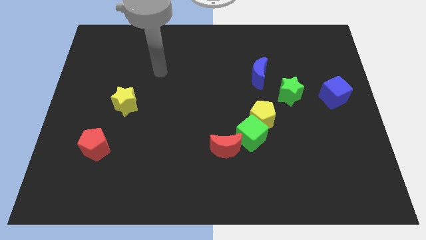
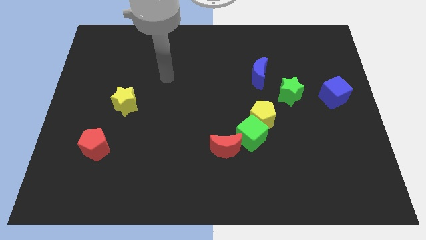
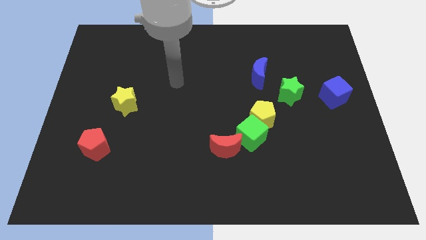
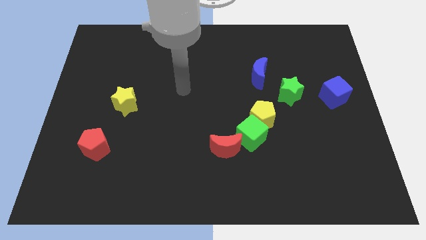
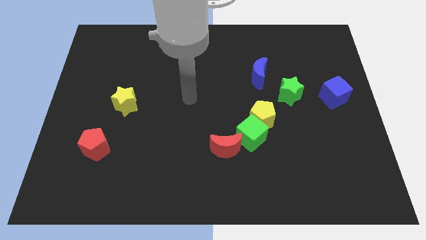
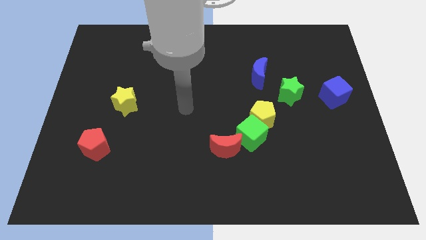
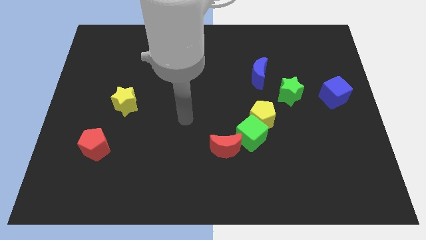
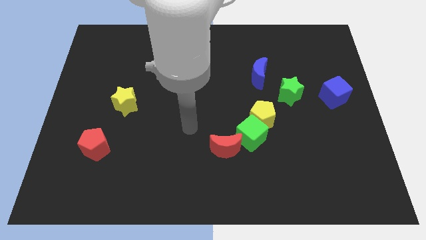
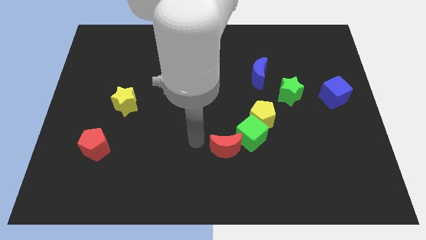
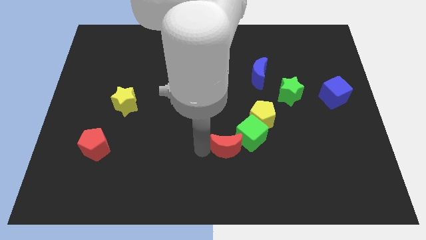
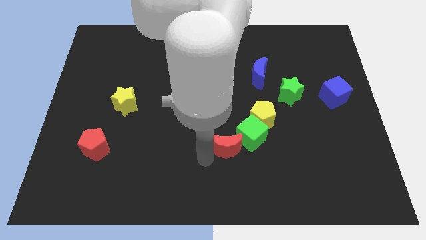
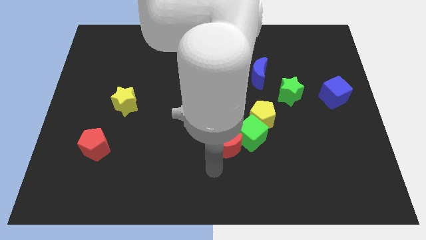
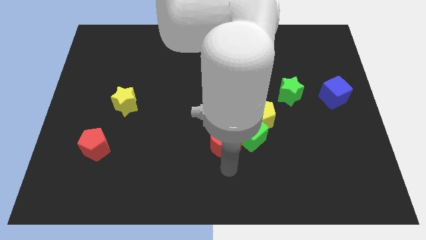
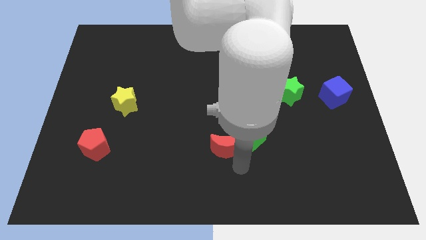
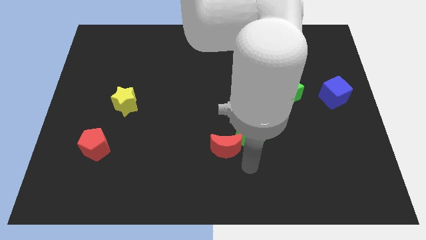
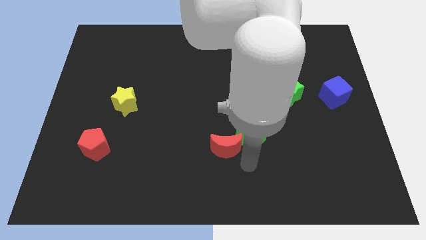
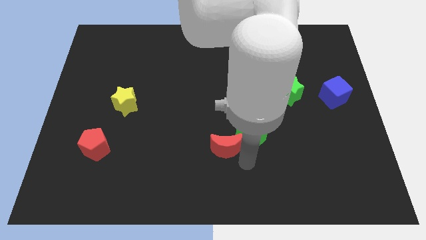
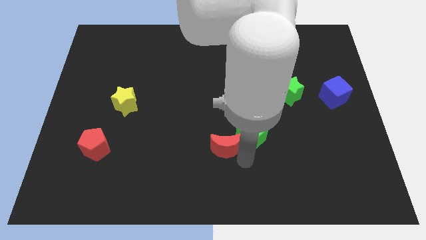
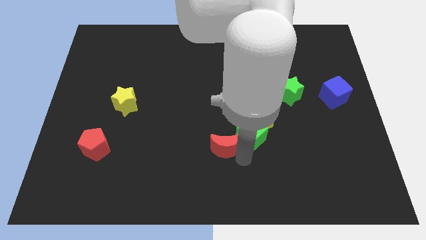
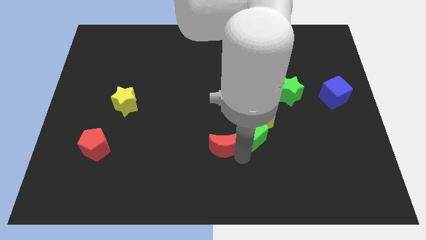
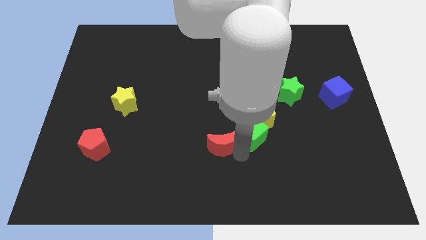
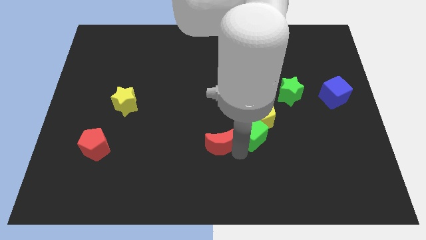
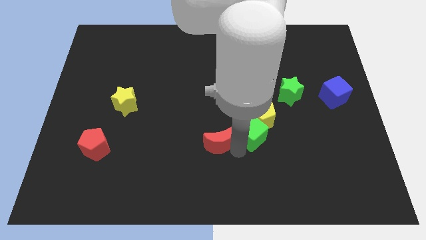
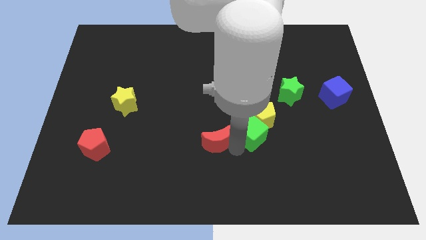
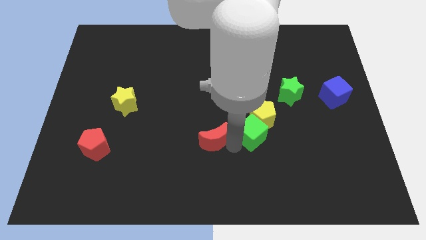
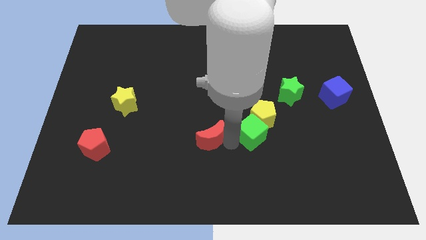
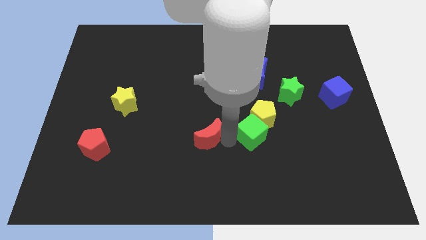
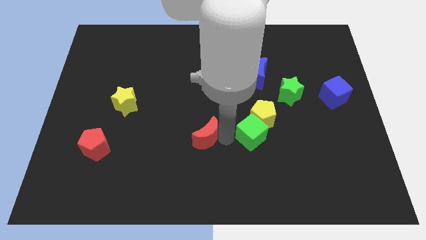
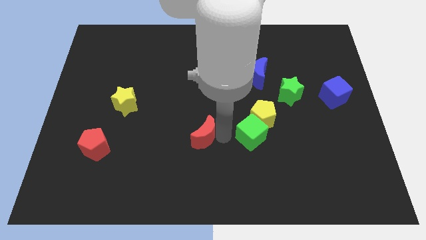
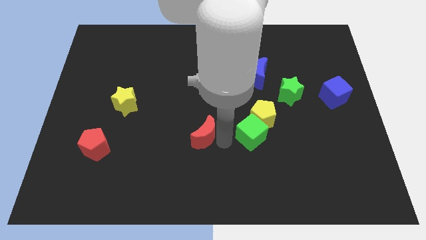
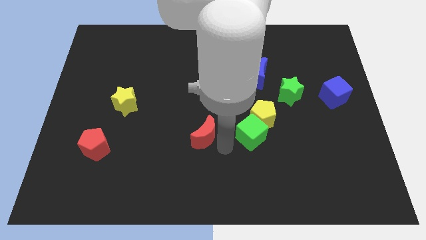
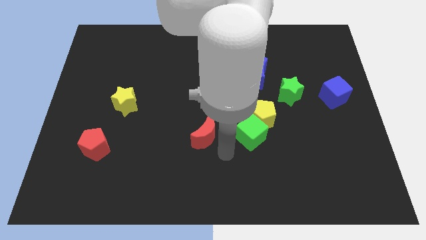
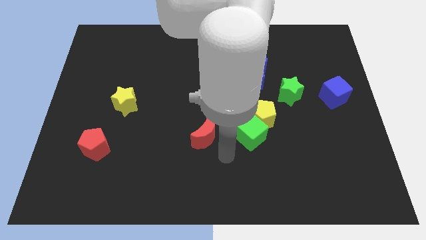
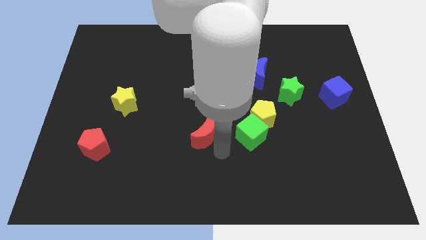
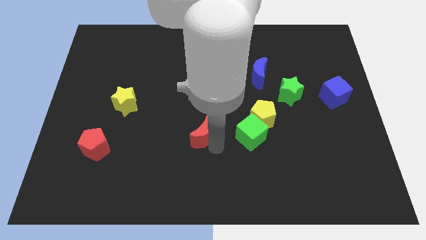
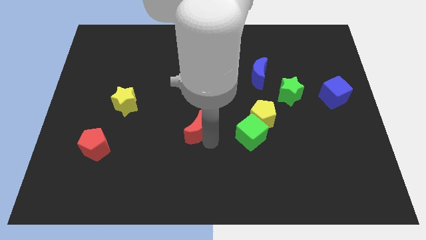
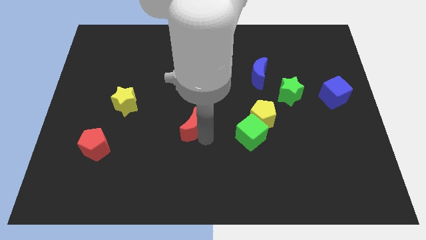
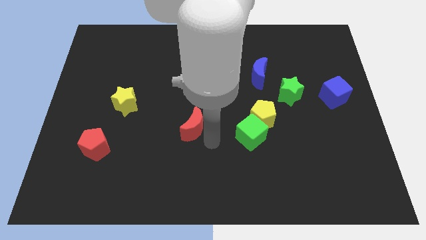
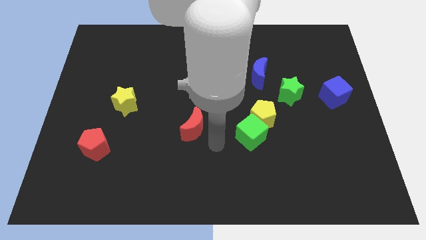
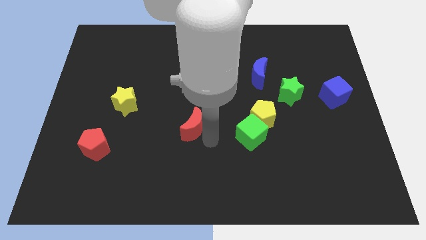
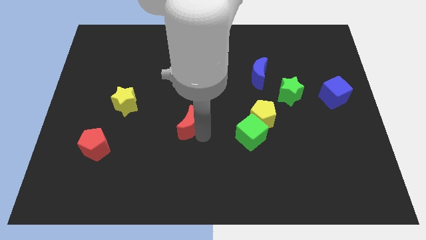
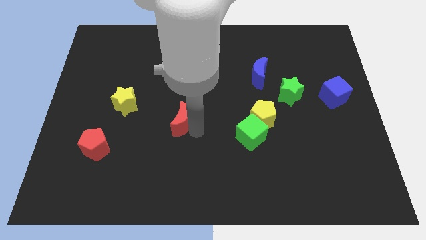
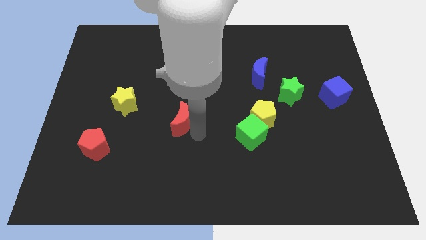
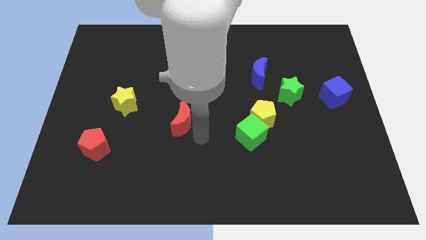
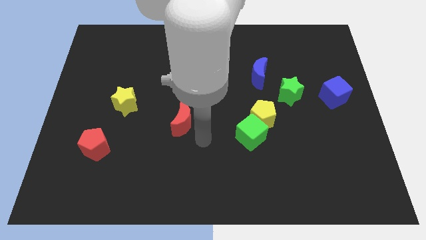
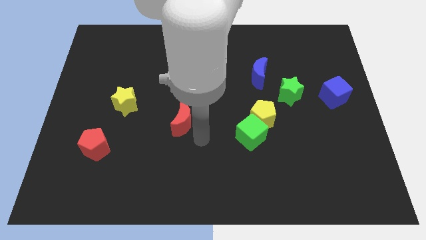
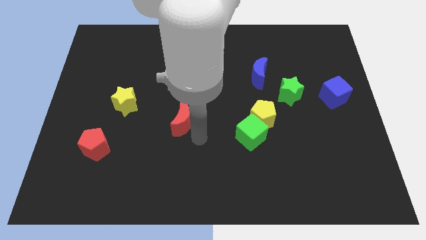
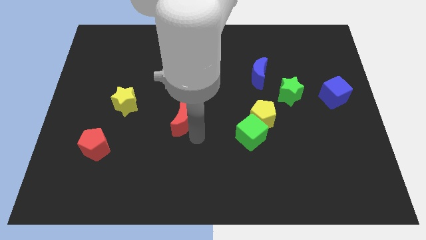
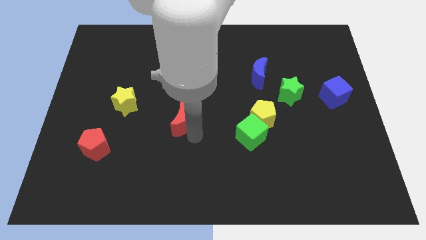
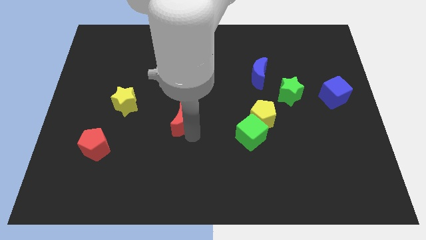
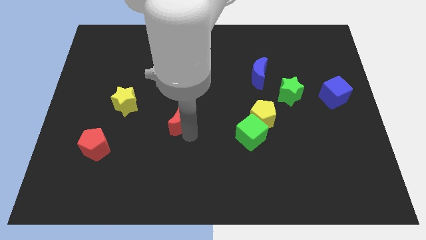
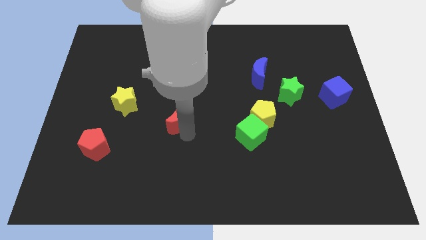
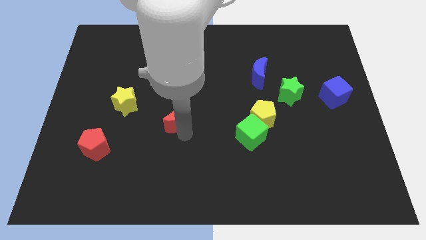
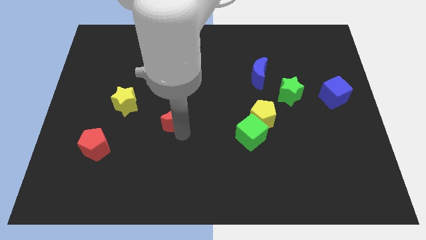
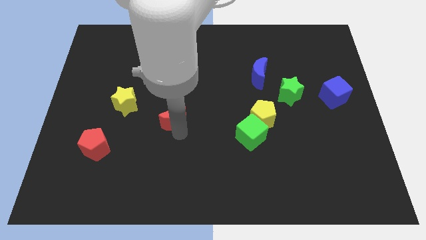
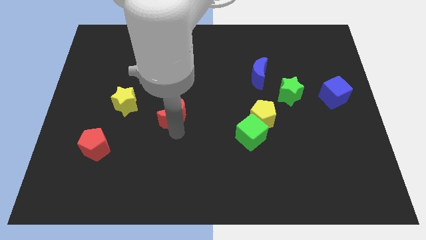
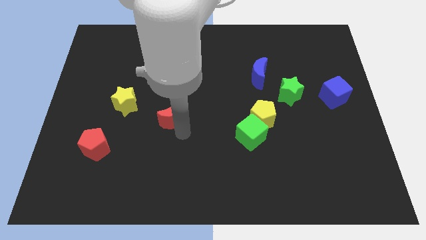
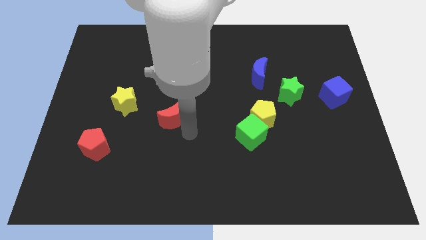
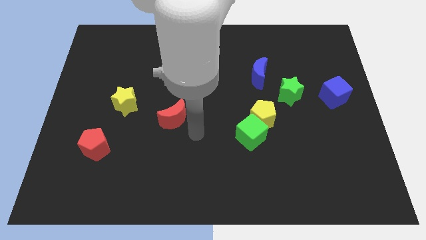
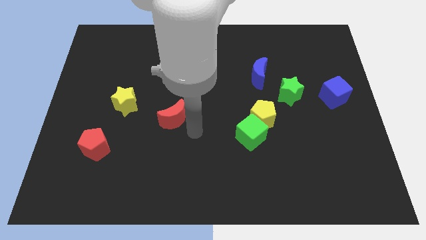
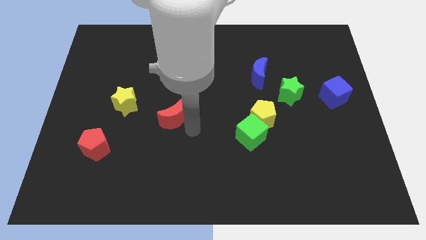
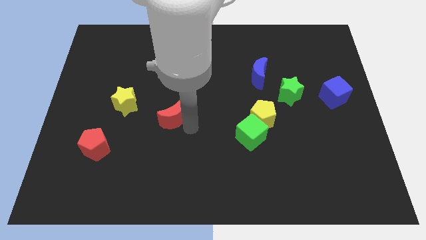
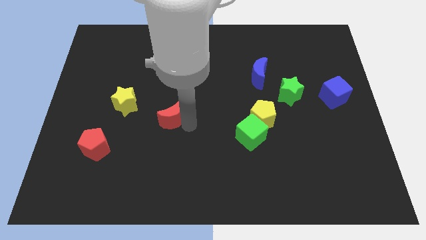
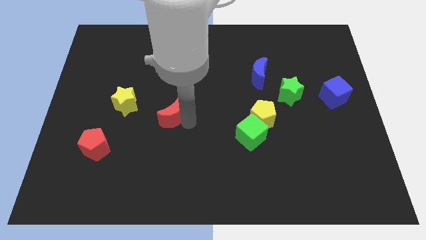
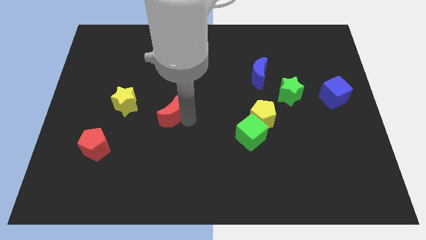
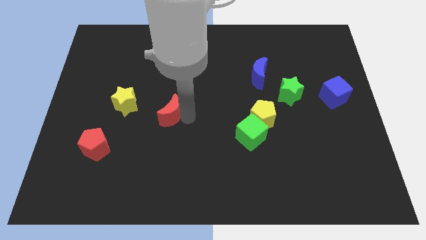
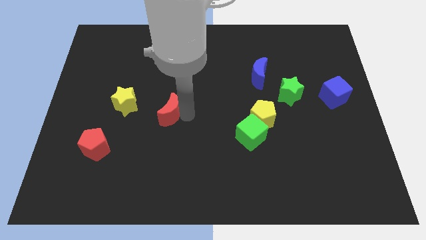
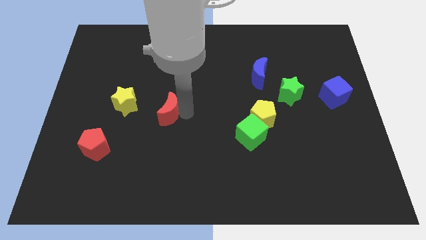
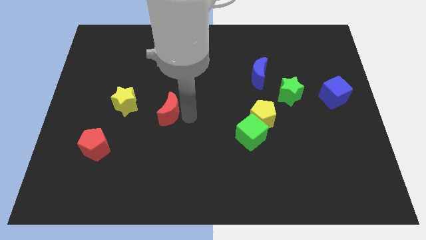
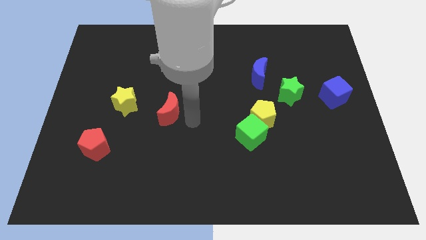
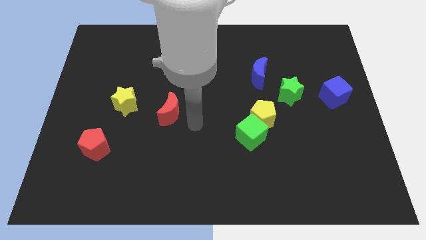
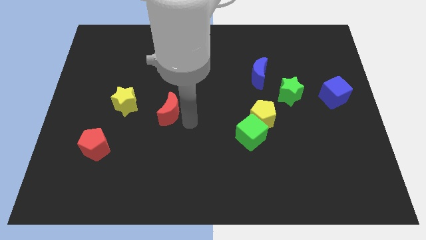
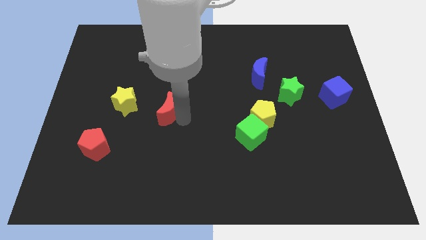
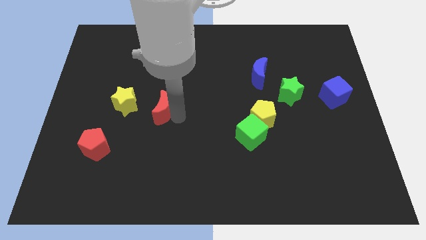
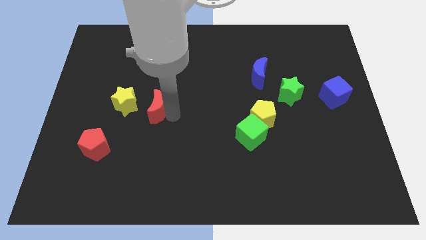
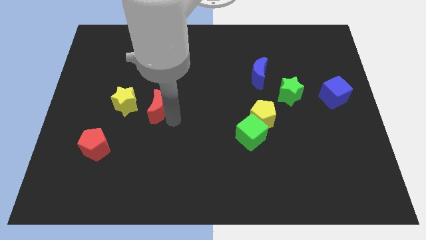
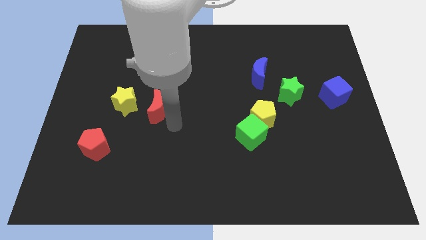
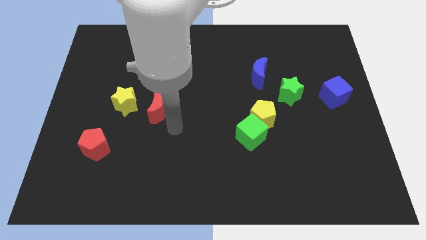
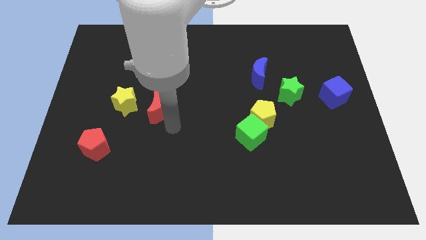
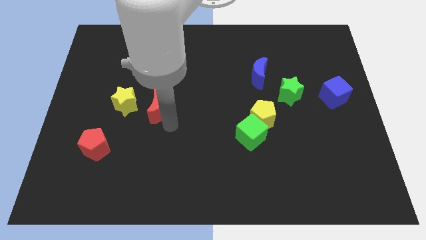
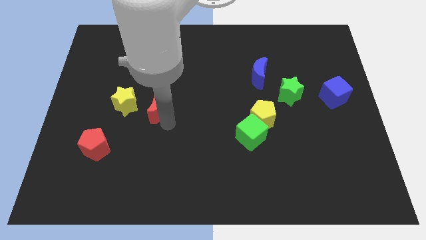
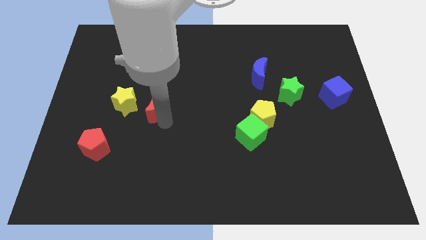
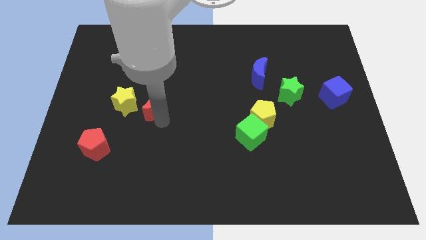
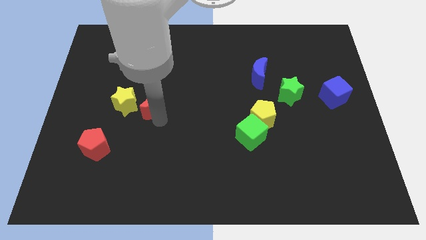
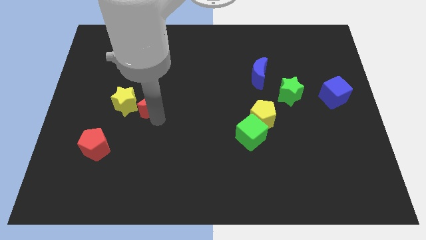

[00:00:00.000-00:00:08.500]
slide the red moon up and left
